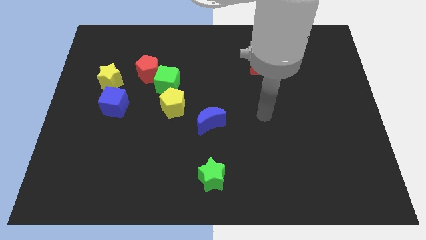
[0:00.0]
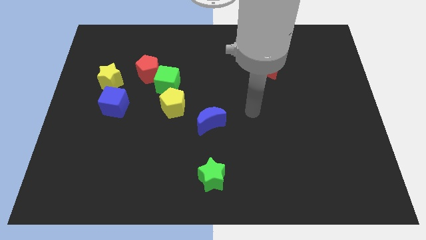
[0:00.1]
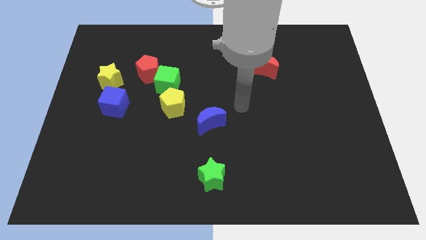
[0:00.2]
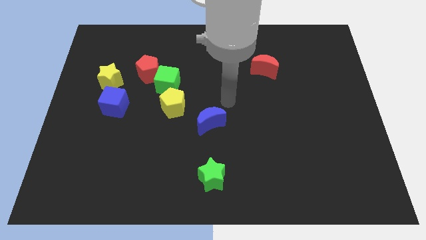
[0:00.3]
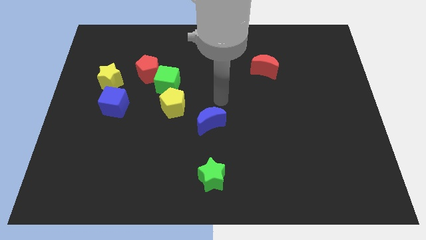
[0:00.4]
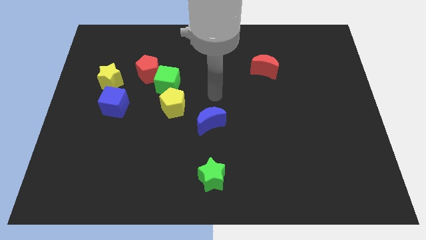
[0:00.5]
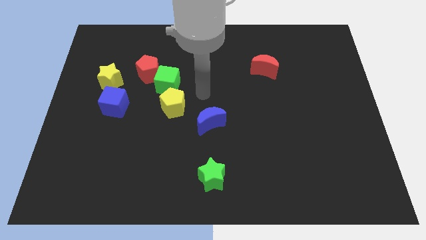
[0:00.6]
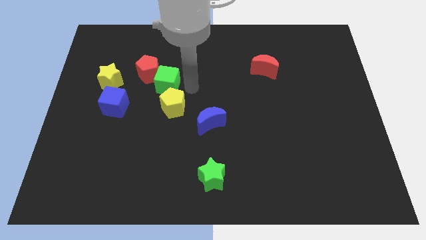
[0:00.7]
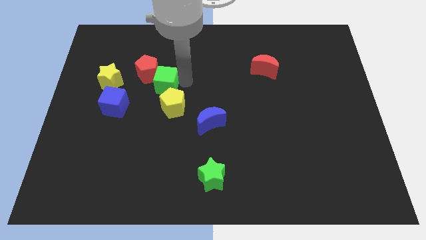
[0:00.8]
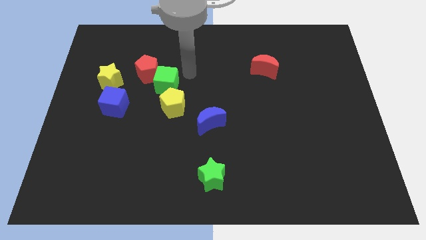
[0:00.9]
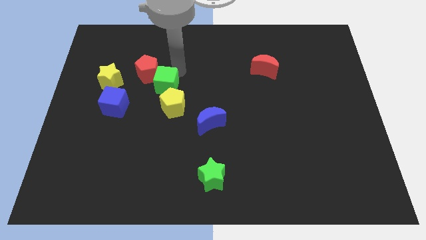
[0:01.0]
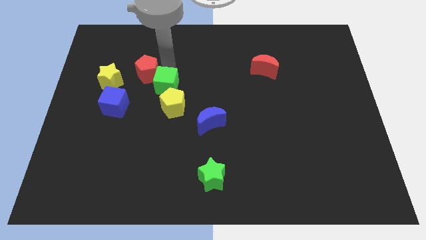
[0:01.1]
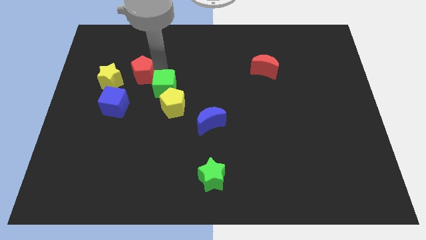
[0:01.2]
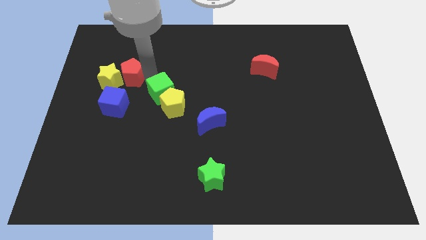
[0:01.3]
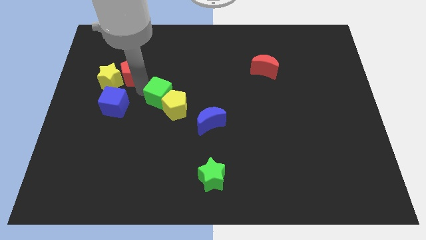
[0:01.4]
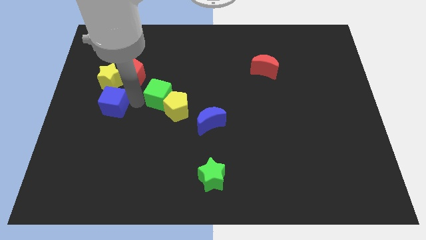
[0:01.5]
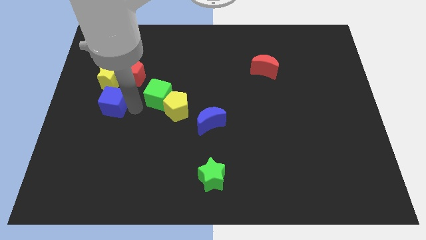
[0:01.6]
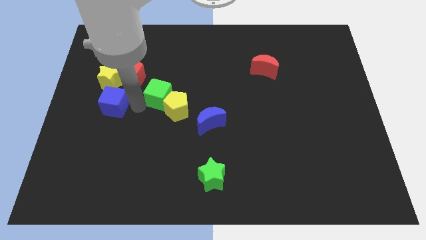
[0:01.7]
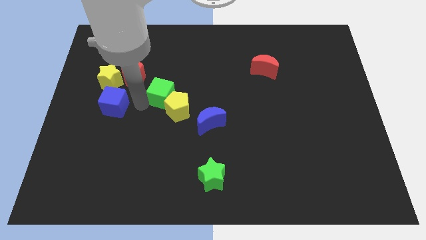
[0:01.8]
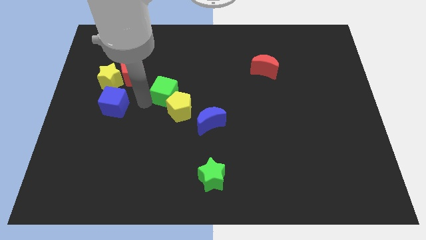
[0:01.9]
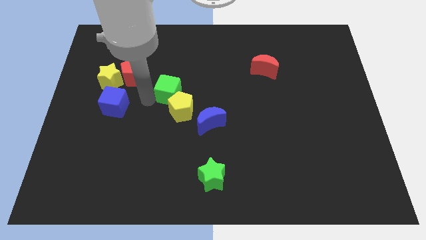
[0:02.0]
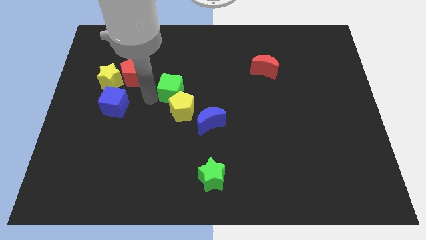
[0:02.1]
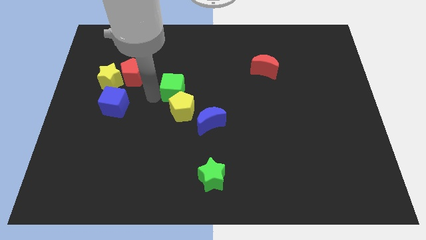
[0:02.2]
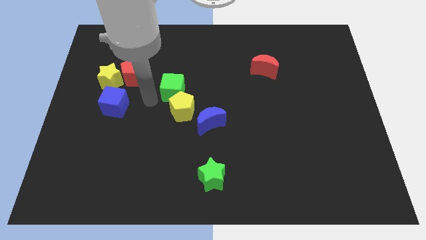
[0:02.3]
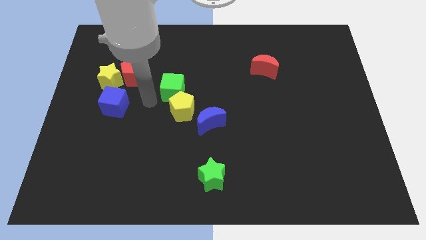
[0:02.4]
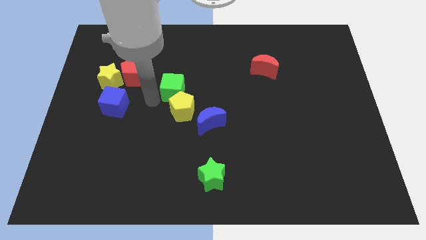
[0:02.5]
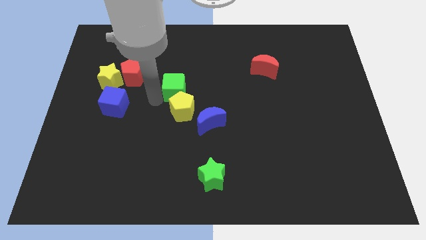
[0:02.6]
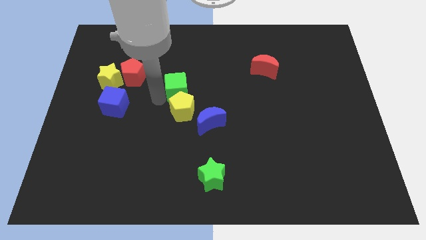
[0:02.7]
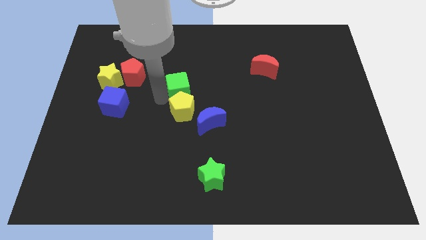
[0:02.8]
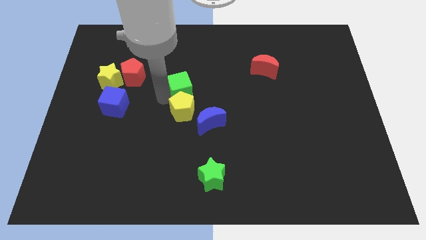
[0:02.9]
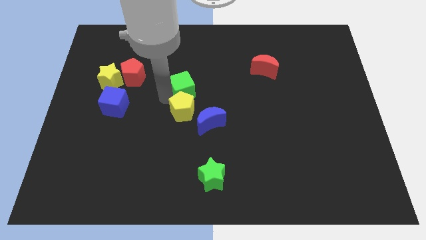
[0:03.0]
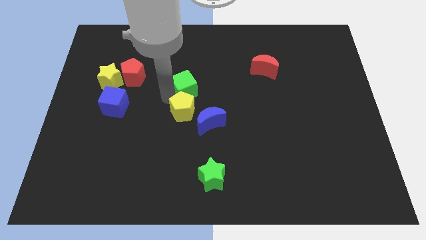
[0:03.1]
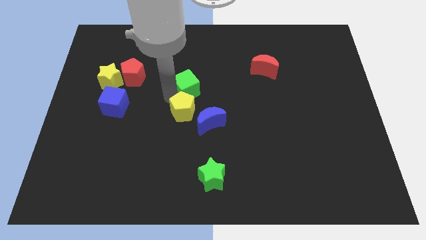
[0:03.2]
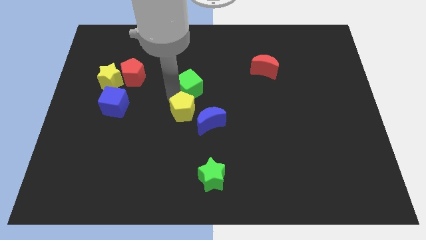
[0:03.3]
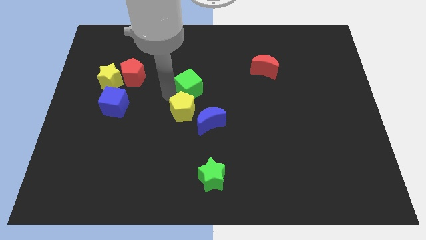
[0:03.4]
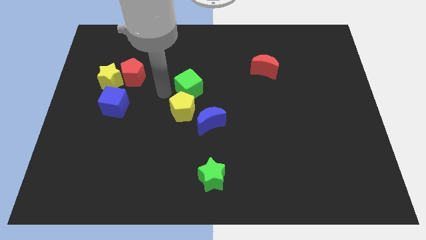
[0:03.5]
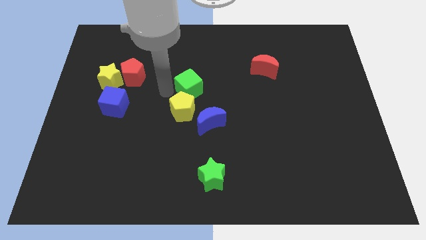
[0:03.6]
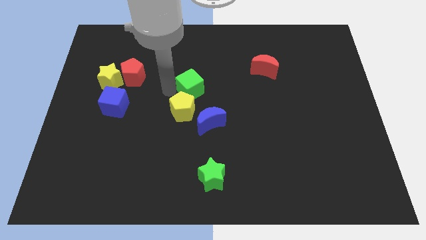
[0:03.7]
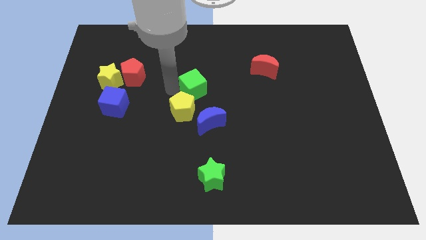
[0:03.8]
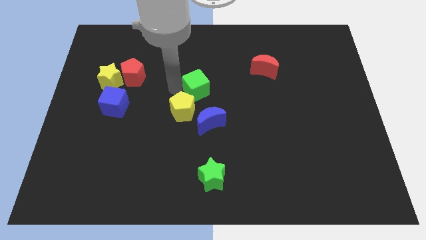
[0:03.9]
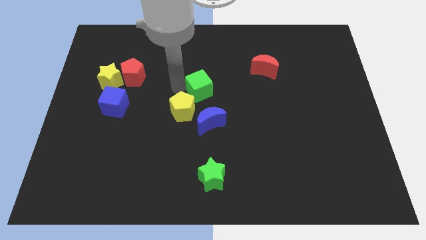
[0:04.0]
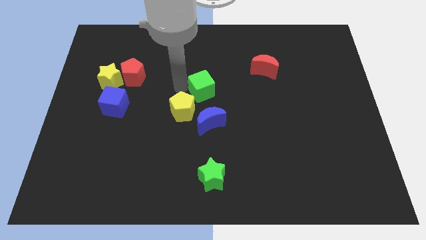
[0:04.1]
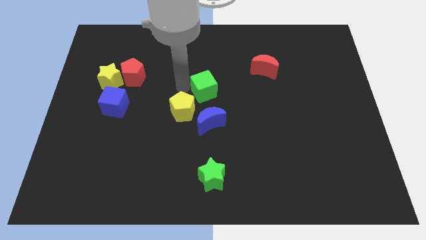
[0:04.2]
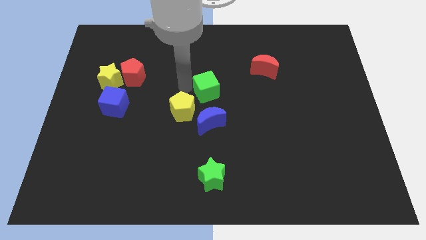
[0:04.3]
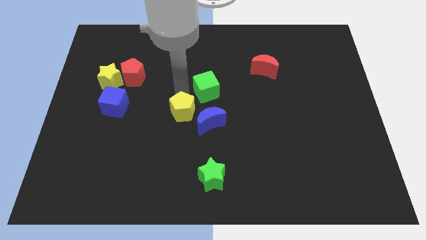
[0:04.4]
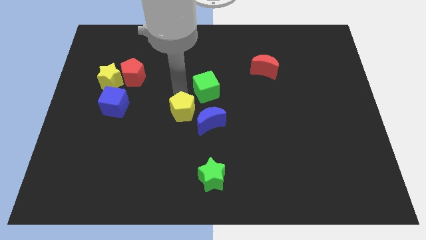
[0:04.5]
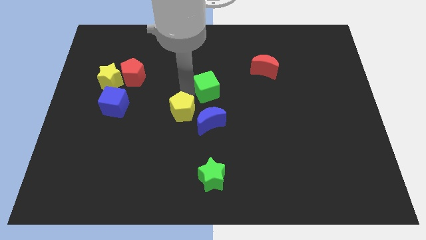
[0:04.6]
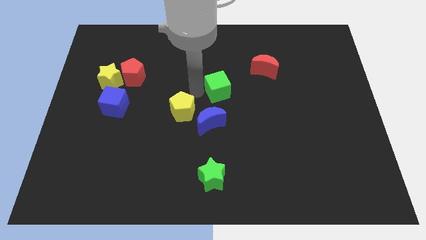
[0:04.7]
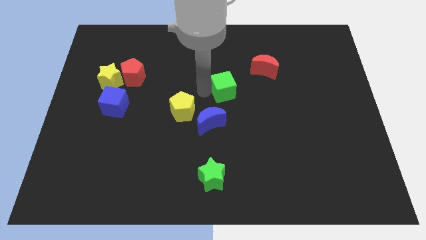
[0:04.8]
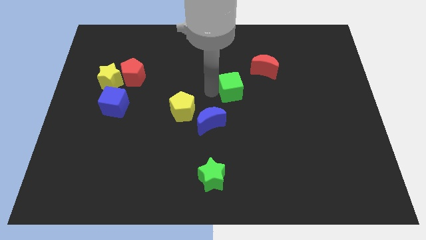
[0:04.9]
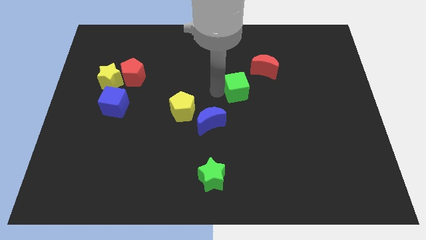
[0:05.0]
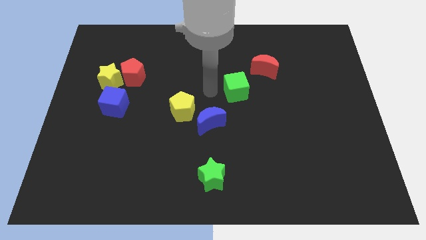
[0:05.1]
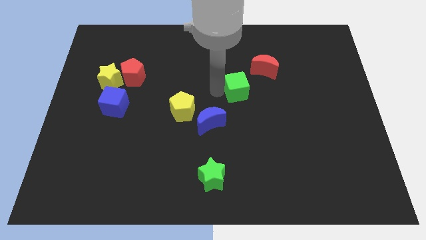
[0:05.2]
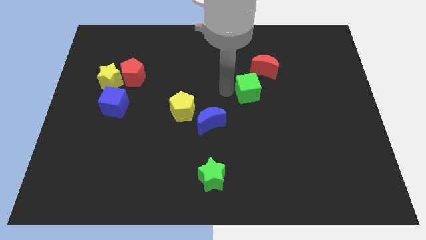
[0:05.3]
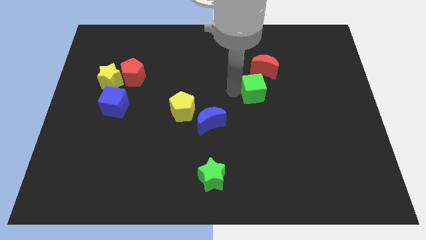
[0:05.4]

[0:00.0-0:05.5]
push the green cube to the right

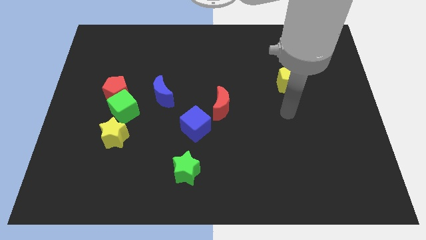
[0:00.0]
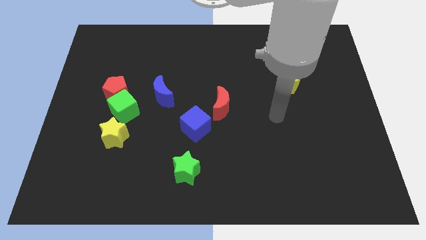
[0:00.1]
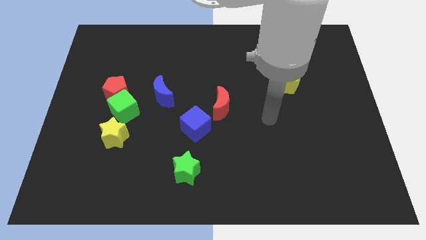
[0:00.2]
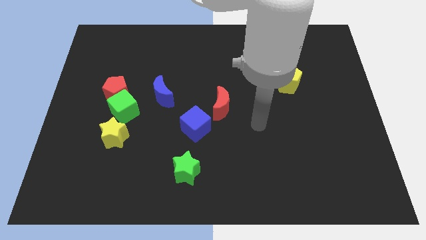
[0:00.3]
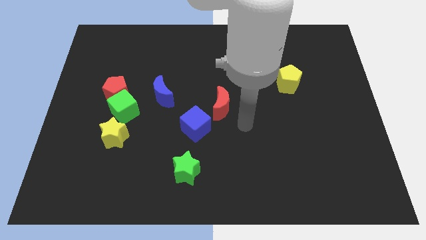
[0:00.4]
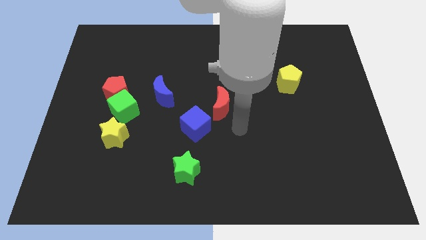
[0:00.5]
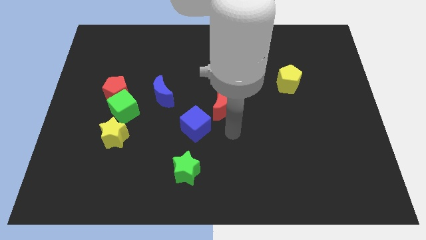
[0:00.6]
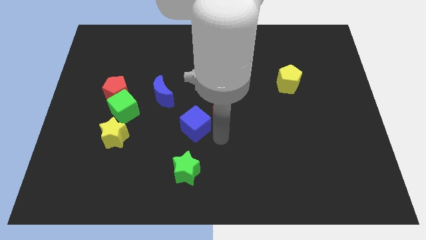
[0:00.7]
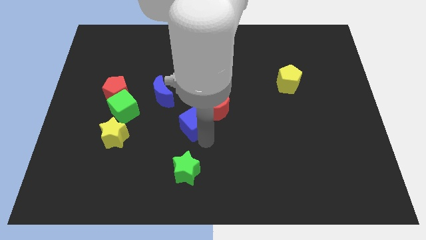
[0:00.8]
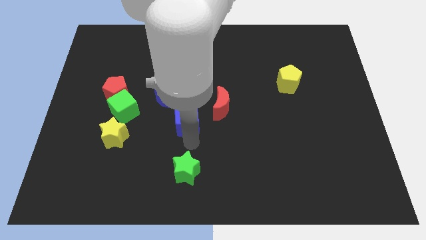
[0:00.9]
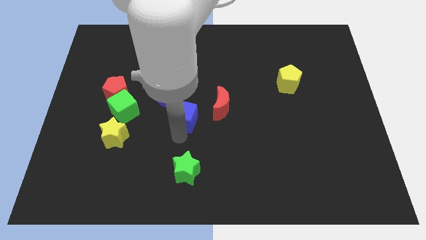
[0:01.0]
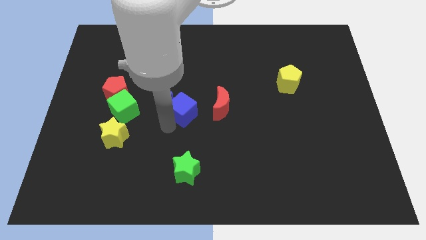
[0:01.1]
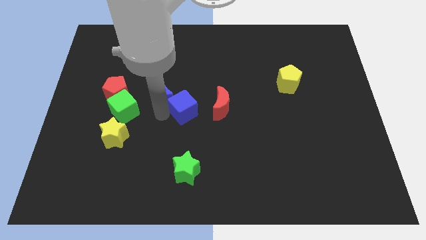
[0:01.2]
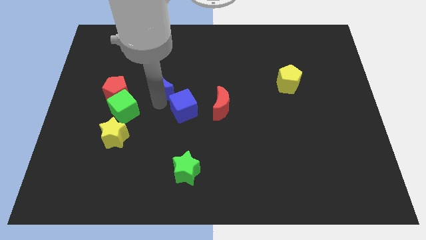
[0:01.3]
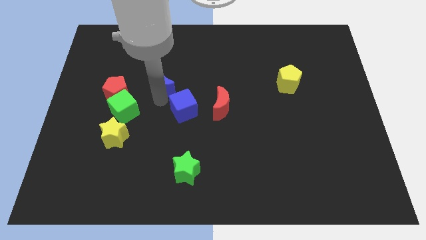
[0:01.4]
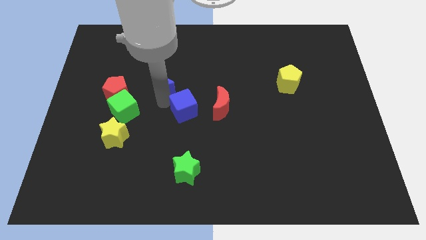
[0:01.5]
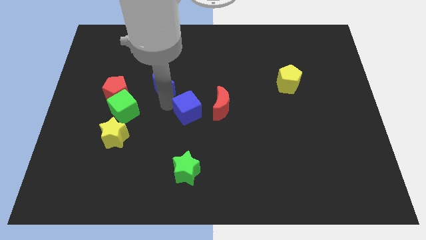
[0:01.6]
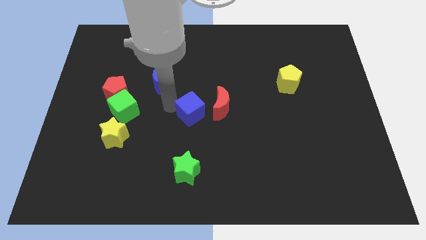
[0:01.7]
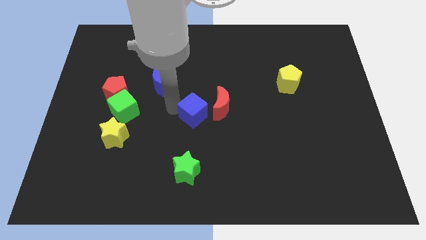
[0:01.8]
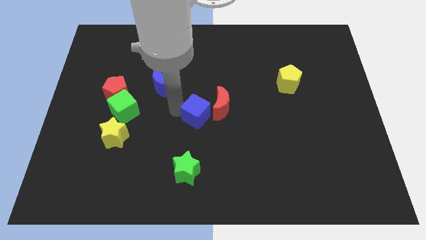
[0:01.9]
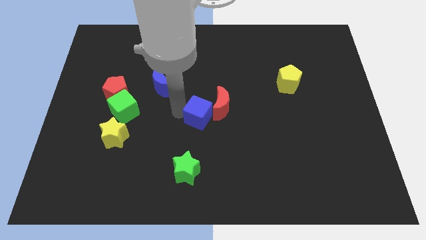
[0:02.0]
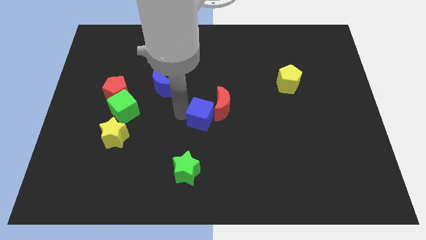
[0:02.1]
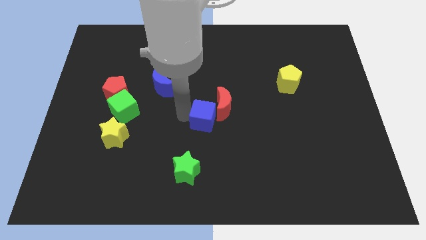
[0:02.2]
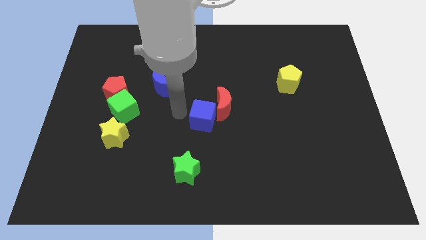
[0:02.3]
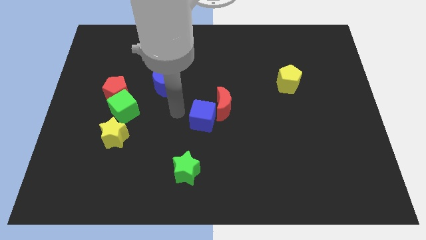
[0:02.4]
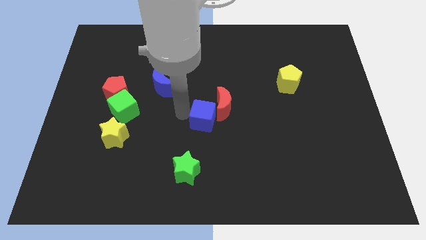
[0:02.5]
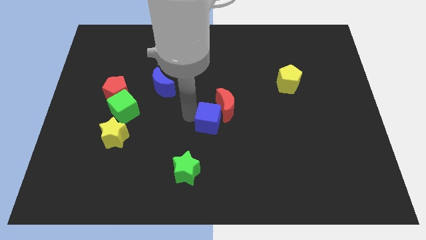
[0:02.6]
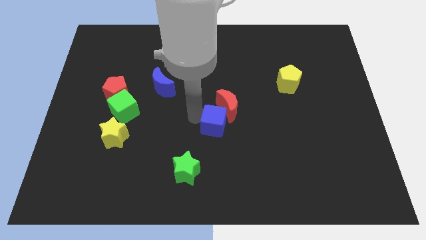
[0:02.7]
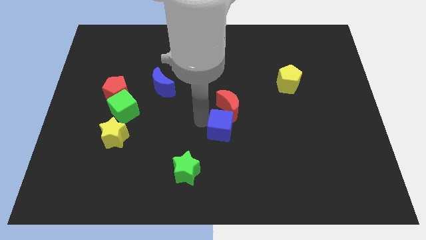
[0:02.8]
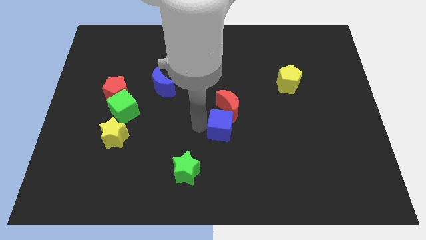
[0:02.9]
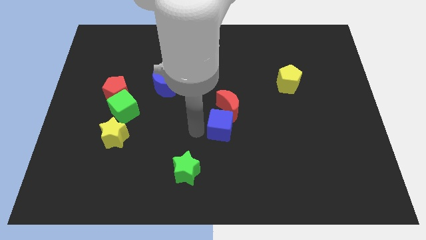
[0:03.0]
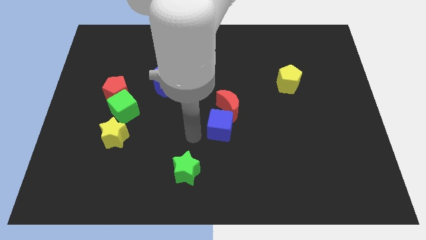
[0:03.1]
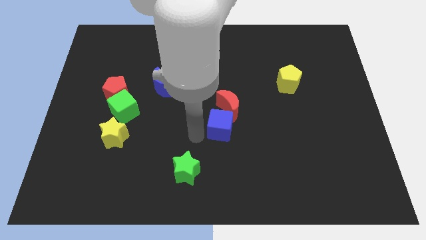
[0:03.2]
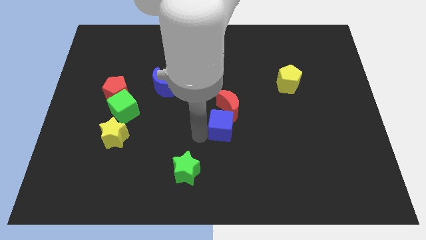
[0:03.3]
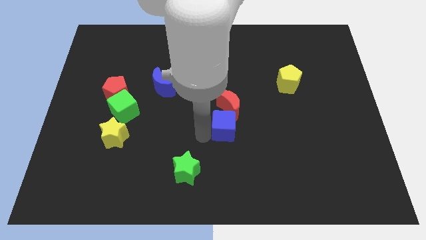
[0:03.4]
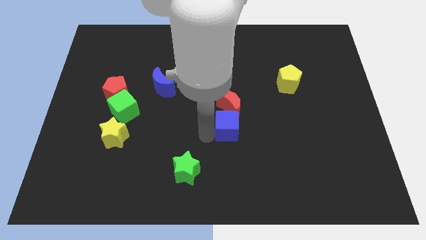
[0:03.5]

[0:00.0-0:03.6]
slightly push the blue cube right
